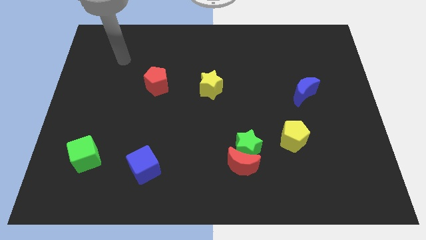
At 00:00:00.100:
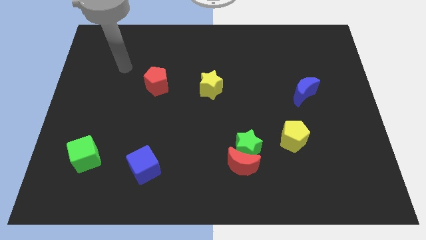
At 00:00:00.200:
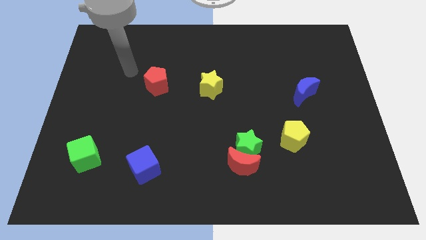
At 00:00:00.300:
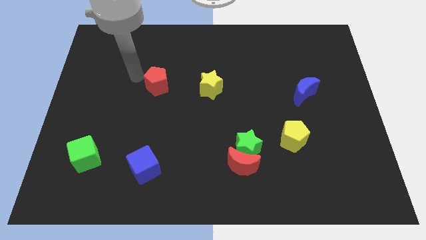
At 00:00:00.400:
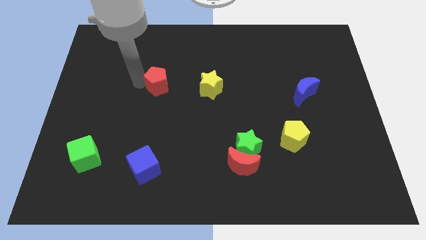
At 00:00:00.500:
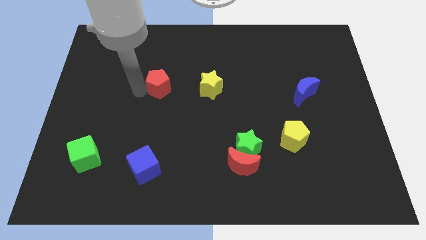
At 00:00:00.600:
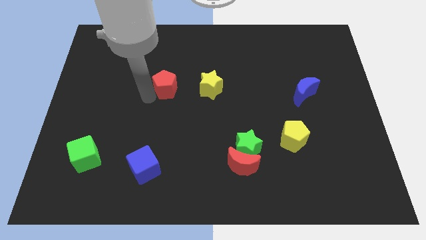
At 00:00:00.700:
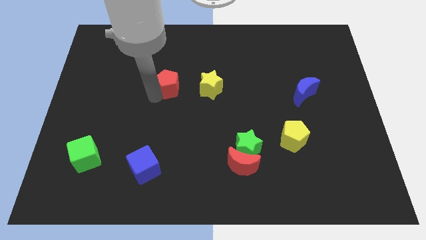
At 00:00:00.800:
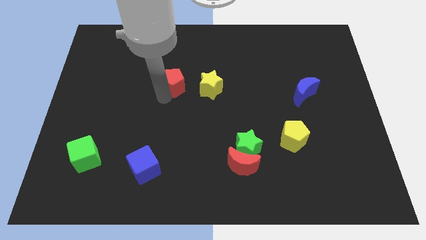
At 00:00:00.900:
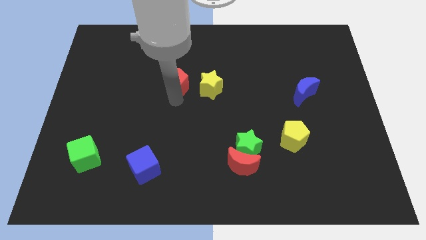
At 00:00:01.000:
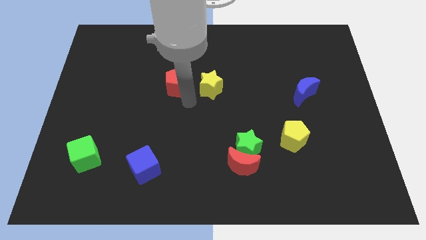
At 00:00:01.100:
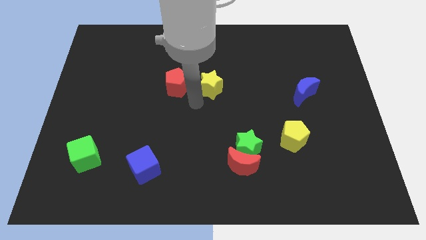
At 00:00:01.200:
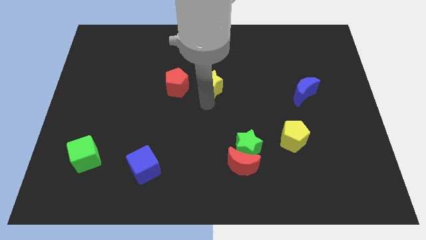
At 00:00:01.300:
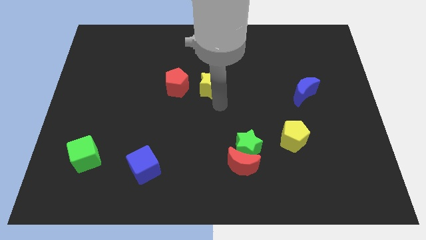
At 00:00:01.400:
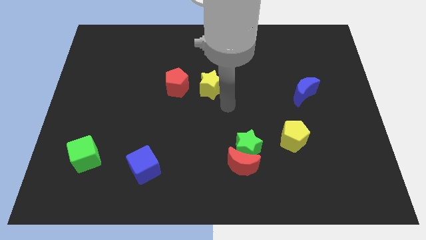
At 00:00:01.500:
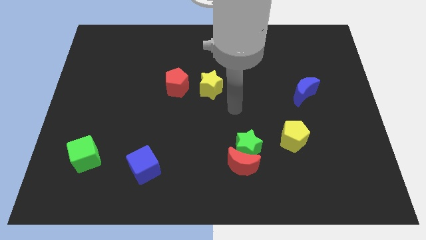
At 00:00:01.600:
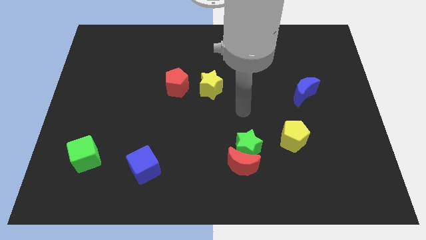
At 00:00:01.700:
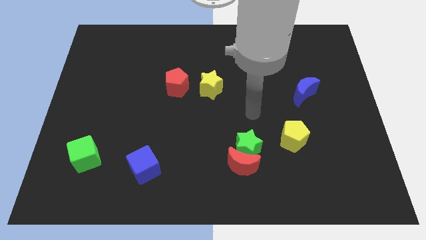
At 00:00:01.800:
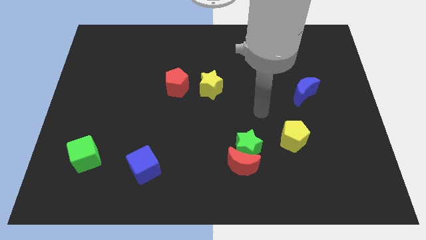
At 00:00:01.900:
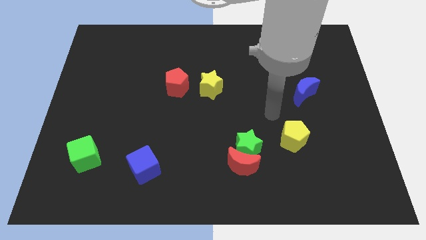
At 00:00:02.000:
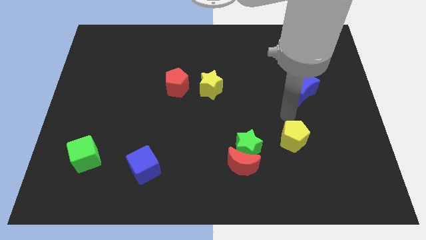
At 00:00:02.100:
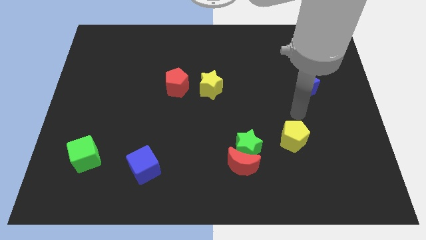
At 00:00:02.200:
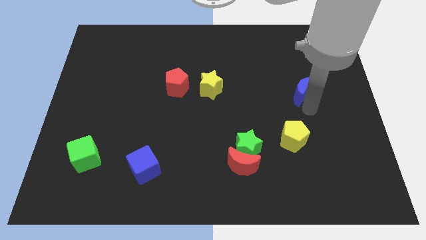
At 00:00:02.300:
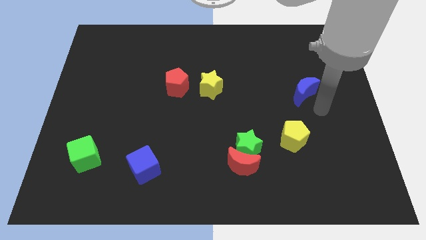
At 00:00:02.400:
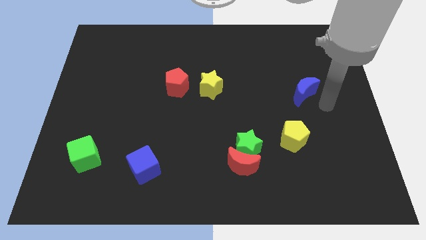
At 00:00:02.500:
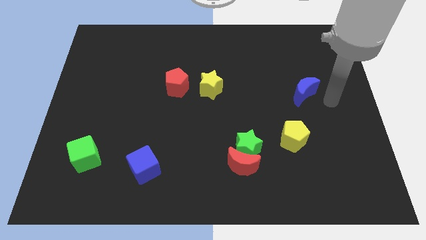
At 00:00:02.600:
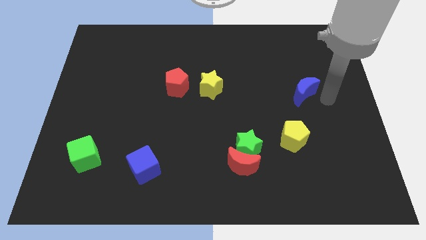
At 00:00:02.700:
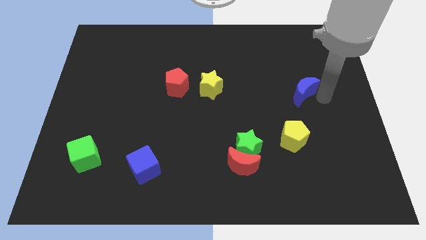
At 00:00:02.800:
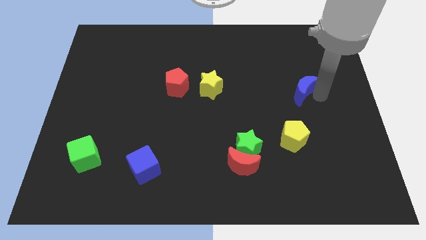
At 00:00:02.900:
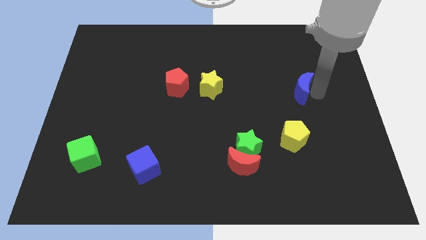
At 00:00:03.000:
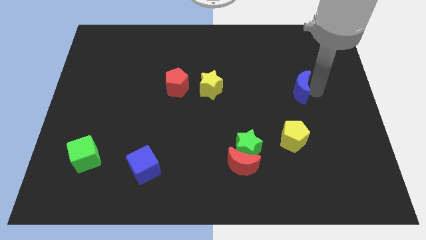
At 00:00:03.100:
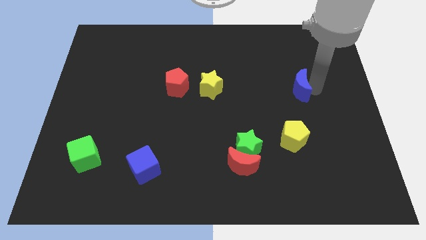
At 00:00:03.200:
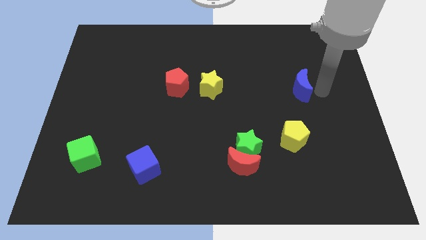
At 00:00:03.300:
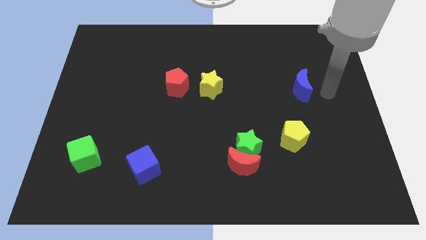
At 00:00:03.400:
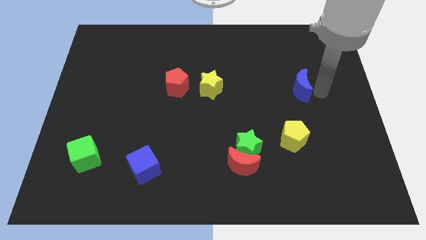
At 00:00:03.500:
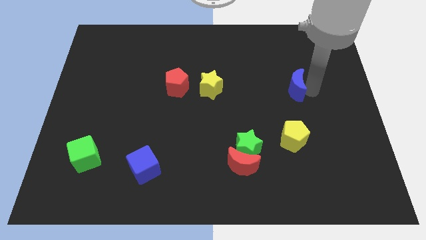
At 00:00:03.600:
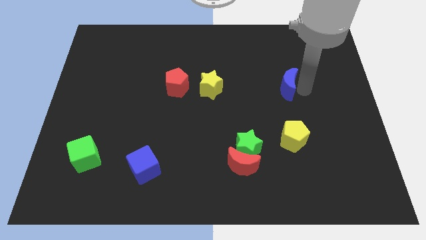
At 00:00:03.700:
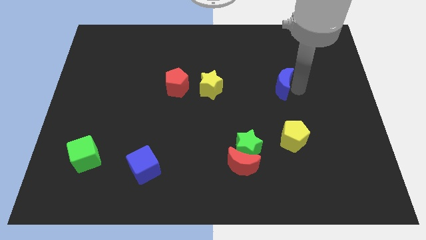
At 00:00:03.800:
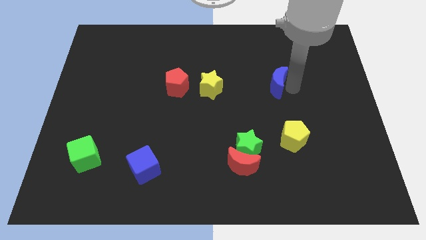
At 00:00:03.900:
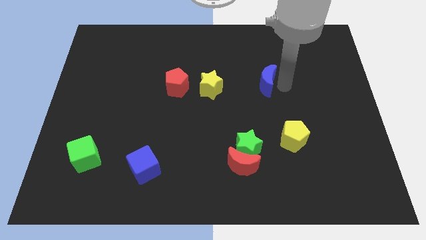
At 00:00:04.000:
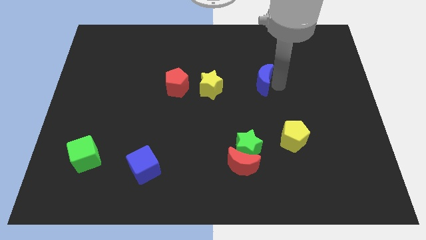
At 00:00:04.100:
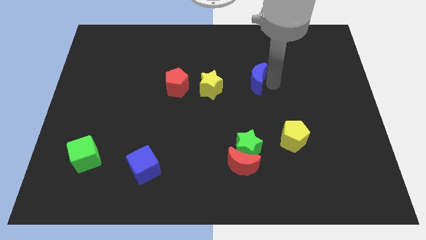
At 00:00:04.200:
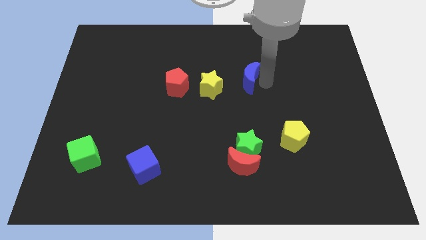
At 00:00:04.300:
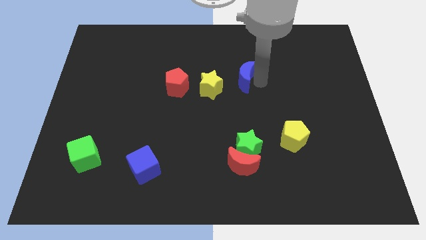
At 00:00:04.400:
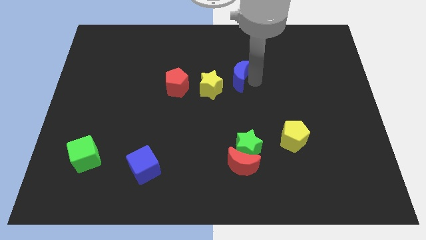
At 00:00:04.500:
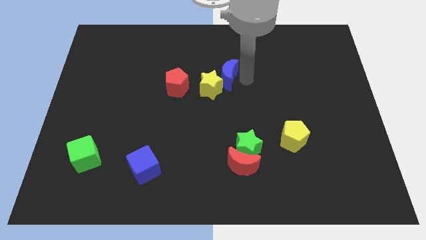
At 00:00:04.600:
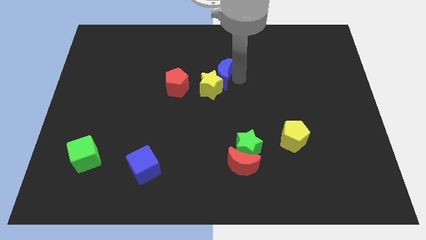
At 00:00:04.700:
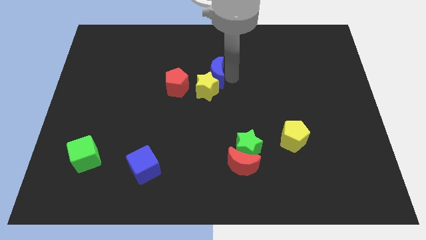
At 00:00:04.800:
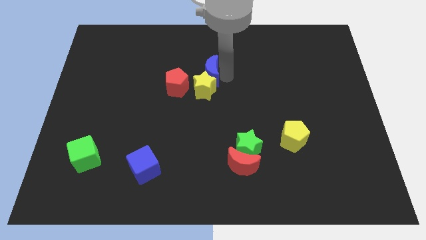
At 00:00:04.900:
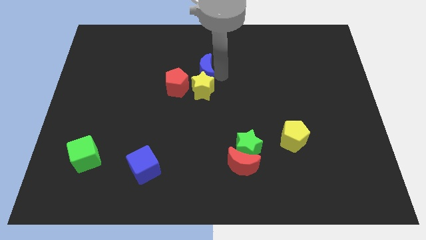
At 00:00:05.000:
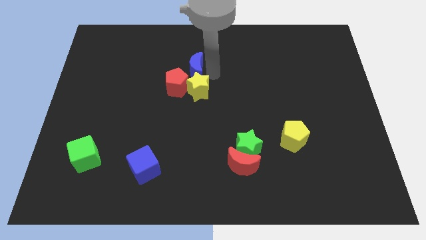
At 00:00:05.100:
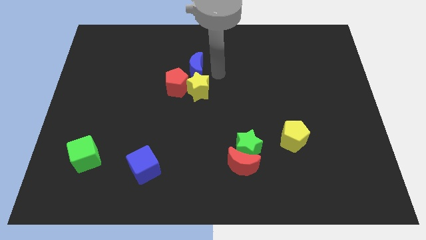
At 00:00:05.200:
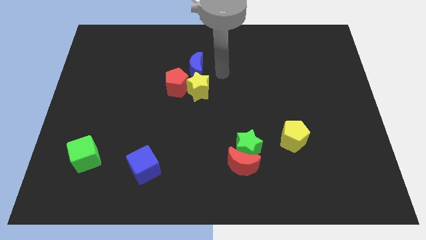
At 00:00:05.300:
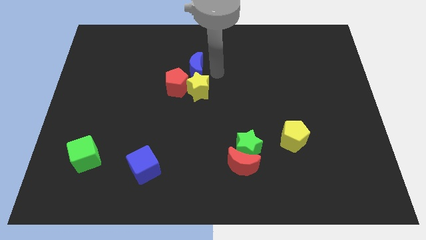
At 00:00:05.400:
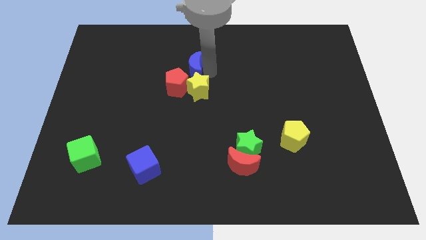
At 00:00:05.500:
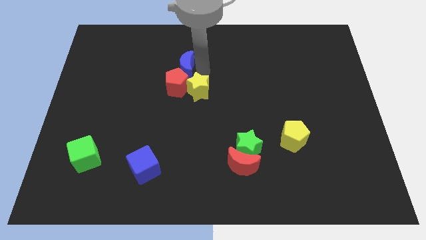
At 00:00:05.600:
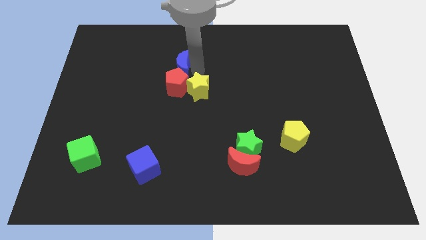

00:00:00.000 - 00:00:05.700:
push the blue moon diagonally up and to the left of the red pentagon

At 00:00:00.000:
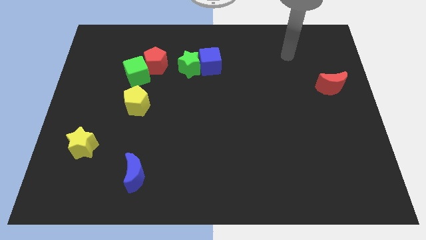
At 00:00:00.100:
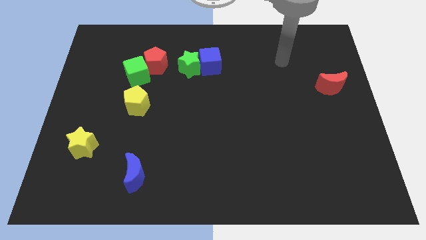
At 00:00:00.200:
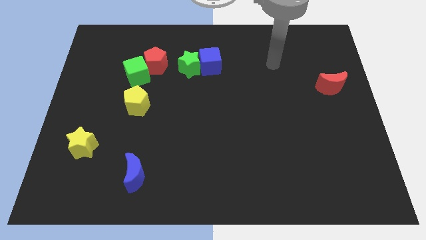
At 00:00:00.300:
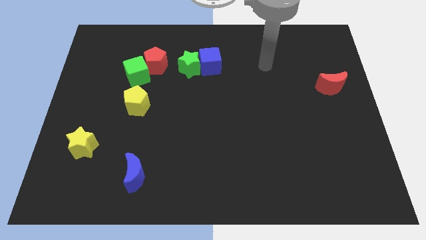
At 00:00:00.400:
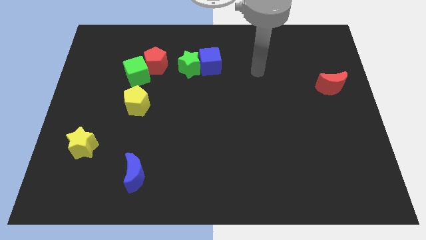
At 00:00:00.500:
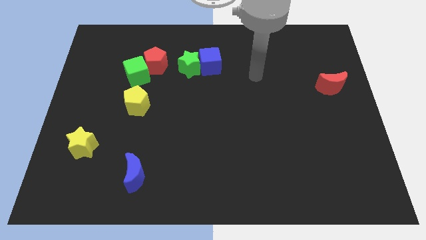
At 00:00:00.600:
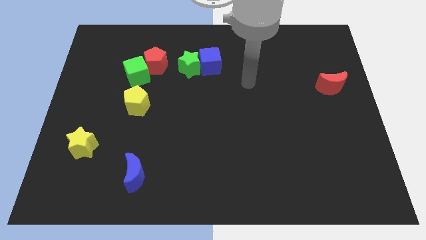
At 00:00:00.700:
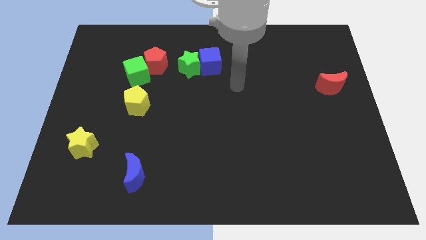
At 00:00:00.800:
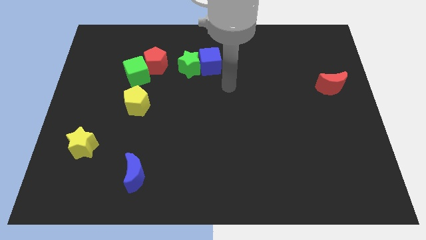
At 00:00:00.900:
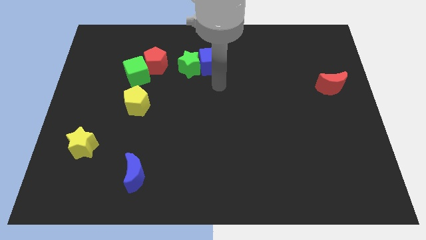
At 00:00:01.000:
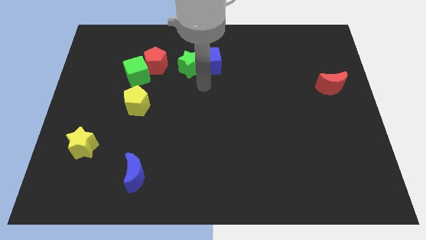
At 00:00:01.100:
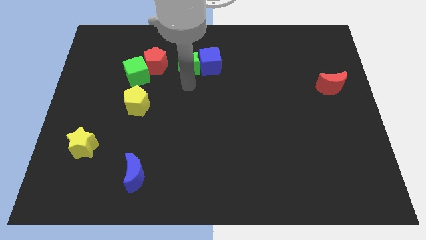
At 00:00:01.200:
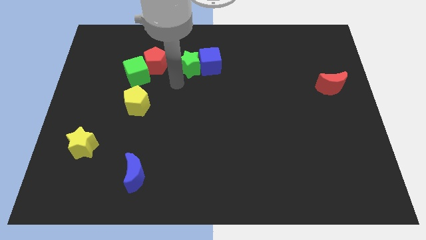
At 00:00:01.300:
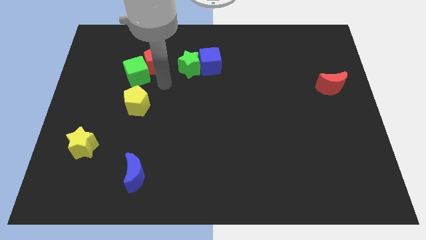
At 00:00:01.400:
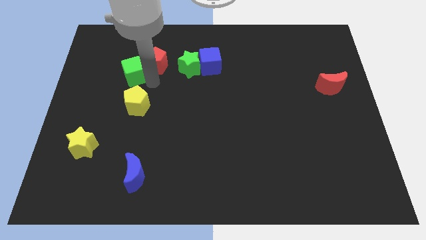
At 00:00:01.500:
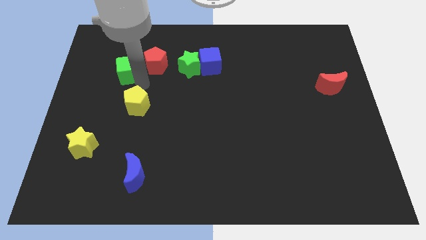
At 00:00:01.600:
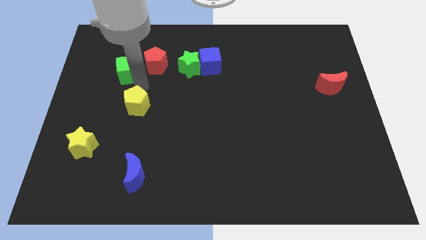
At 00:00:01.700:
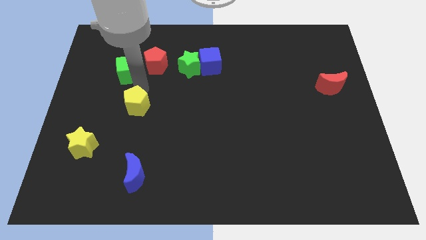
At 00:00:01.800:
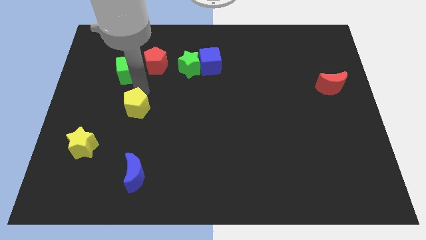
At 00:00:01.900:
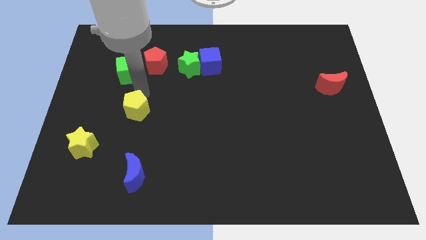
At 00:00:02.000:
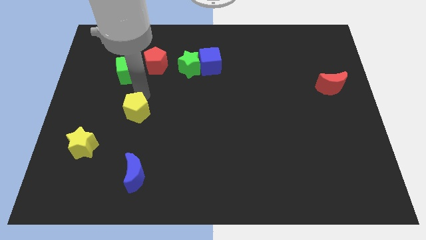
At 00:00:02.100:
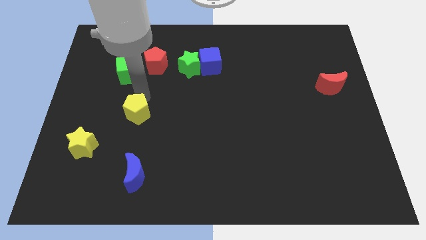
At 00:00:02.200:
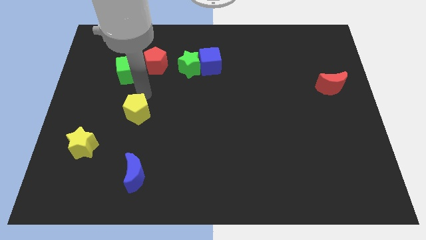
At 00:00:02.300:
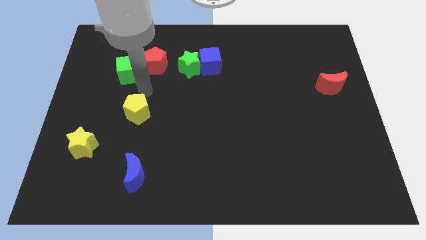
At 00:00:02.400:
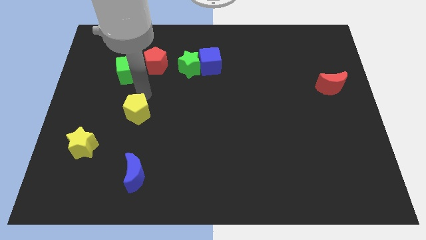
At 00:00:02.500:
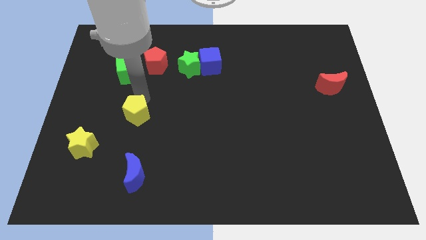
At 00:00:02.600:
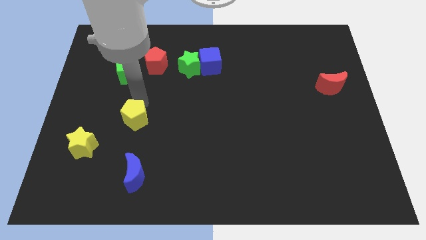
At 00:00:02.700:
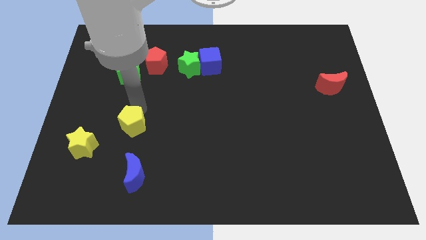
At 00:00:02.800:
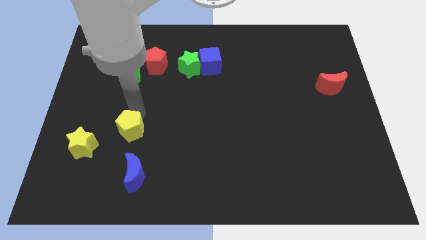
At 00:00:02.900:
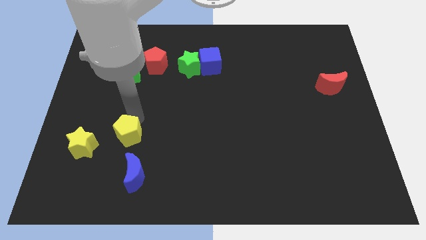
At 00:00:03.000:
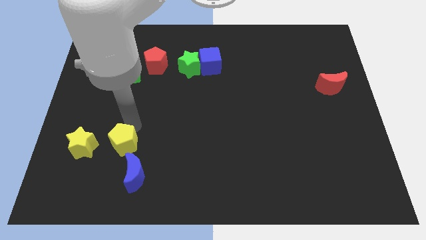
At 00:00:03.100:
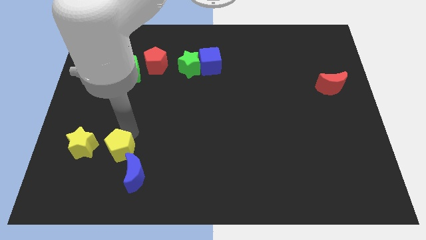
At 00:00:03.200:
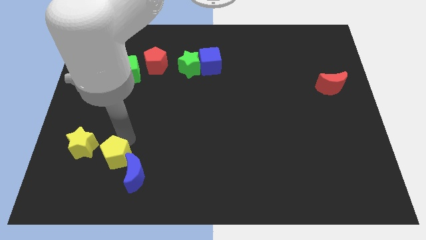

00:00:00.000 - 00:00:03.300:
push the yellow pentagon to the bottom right side of the yellow star
